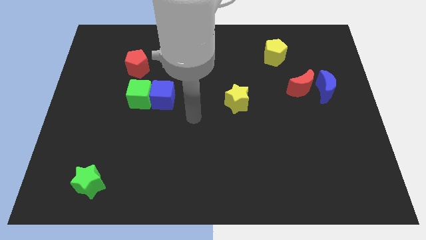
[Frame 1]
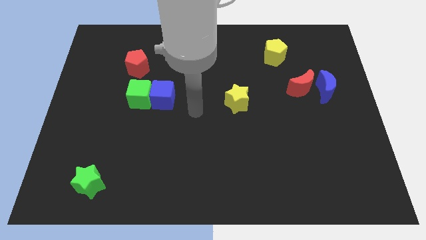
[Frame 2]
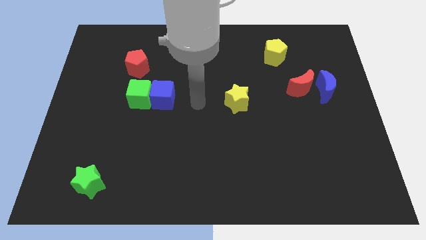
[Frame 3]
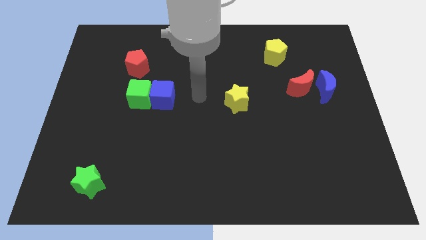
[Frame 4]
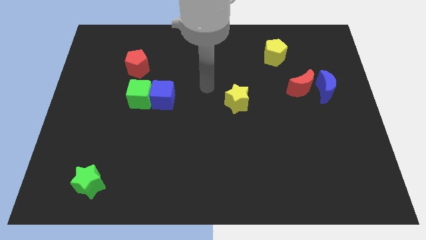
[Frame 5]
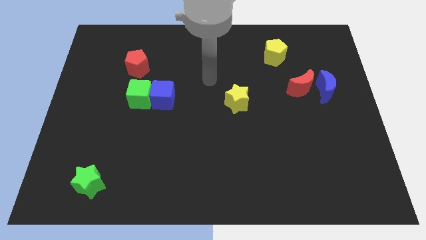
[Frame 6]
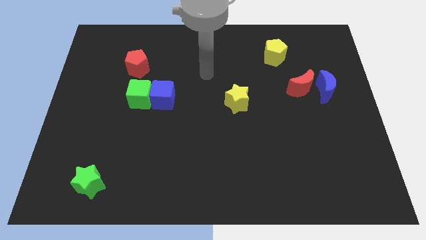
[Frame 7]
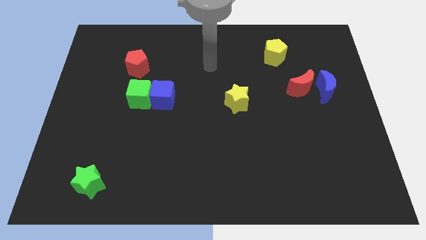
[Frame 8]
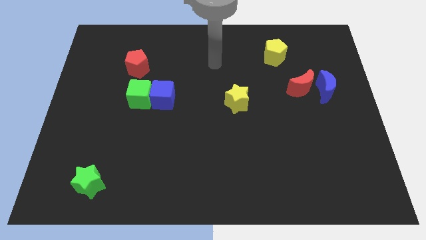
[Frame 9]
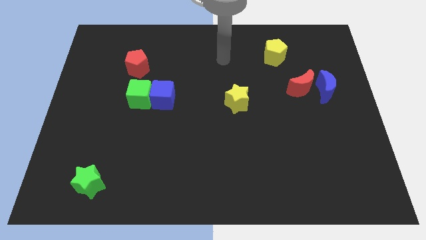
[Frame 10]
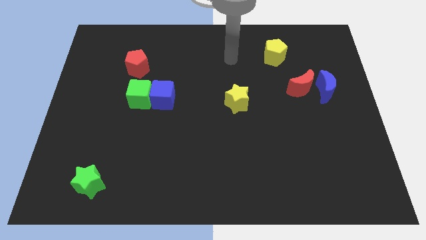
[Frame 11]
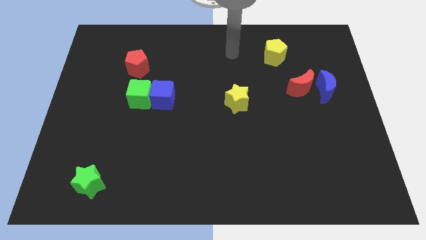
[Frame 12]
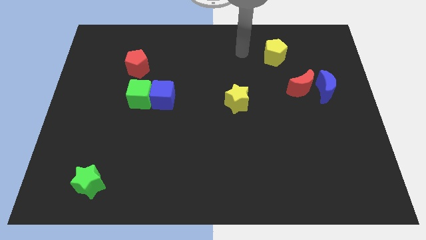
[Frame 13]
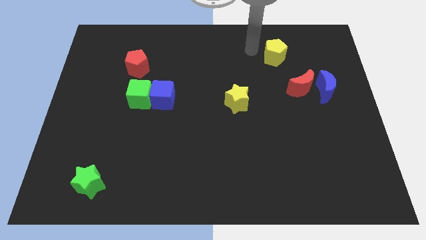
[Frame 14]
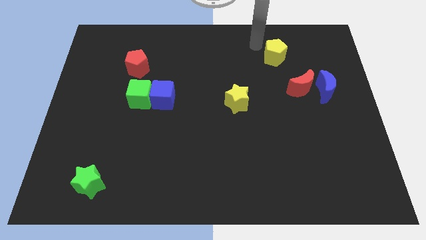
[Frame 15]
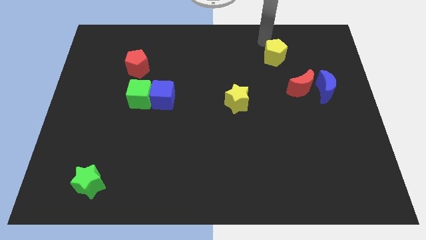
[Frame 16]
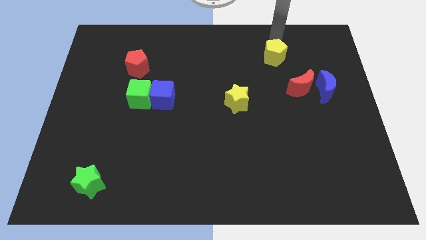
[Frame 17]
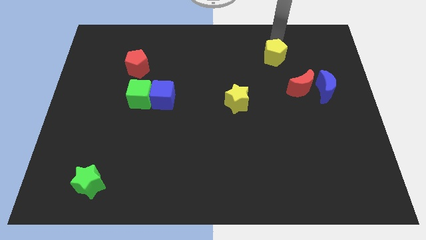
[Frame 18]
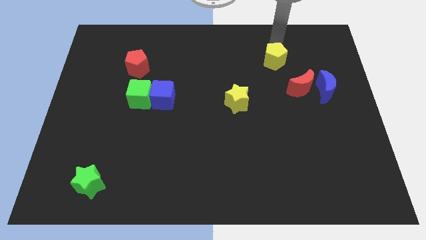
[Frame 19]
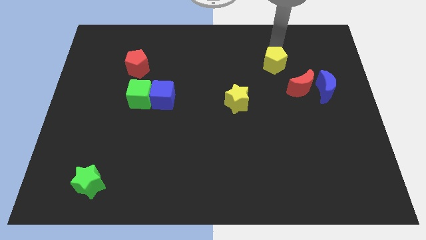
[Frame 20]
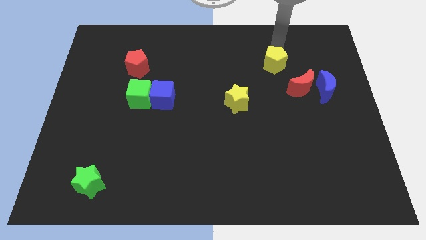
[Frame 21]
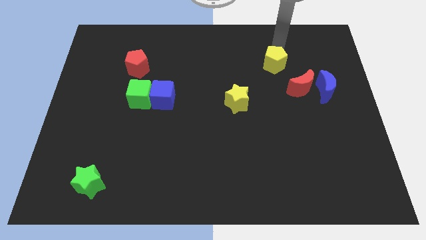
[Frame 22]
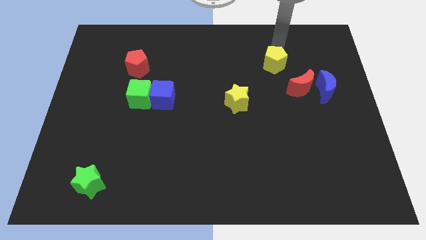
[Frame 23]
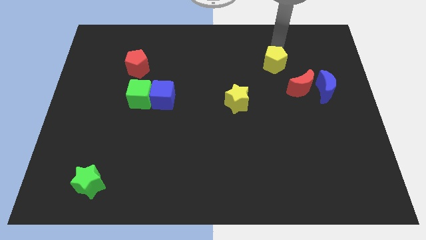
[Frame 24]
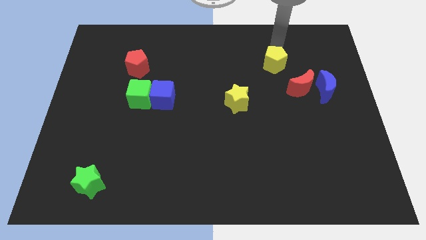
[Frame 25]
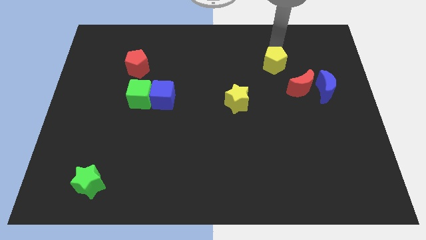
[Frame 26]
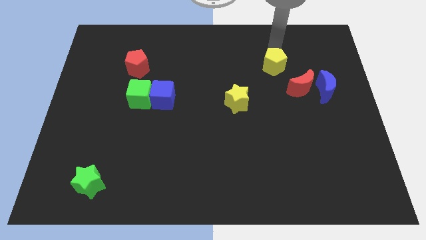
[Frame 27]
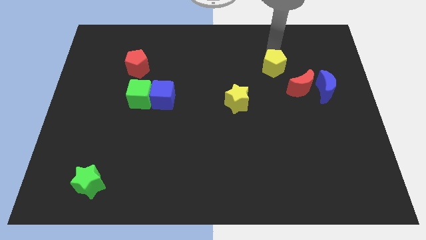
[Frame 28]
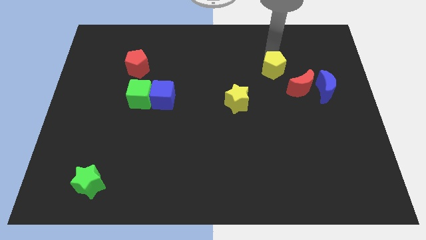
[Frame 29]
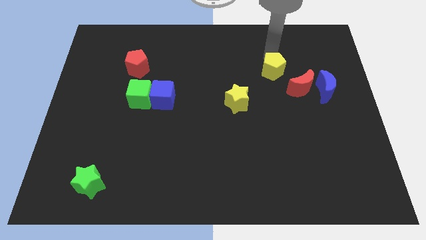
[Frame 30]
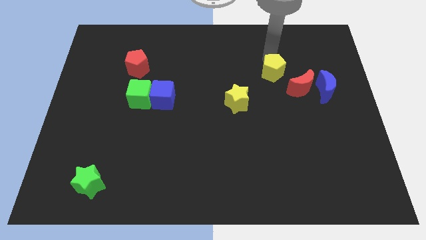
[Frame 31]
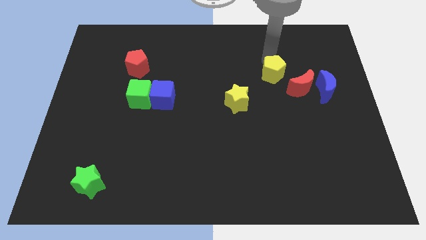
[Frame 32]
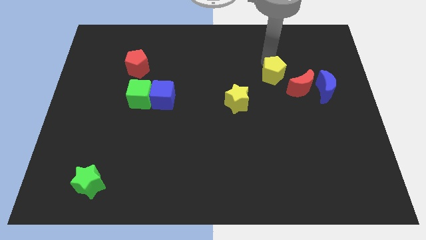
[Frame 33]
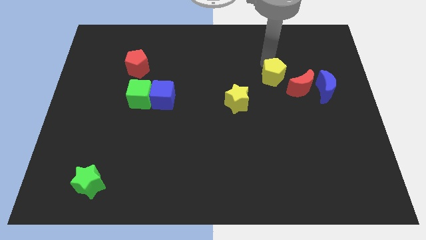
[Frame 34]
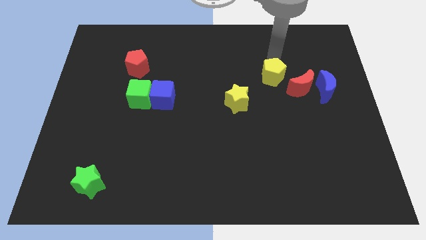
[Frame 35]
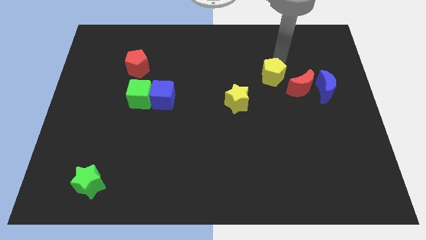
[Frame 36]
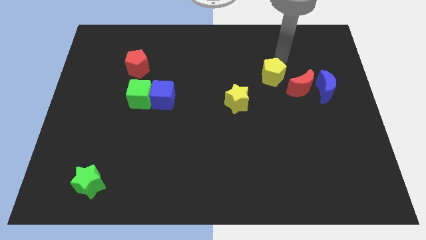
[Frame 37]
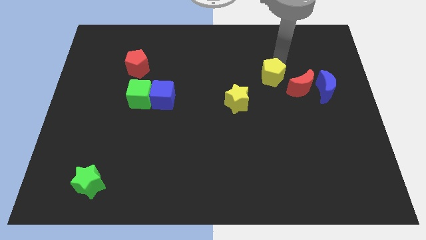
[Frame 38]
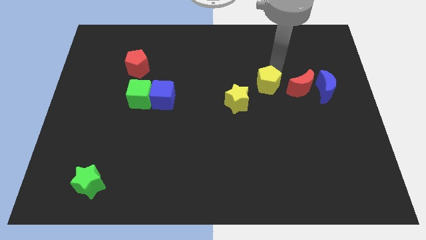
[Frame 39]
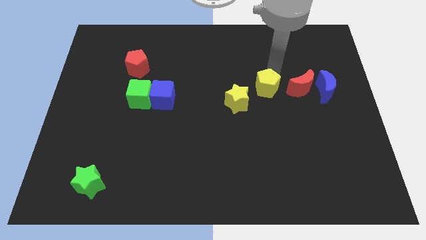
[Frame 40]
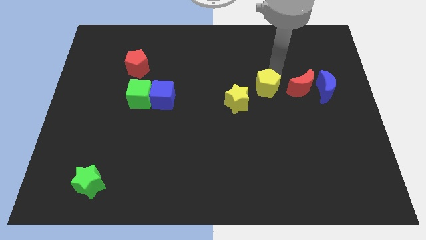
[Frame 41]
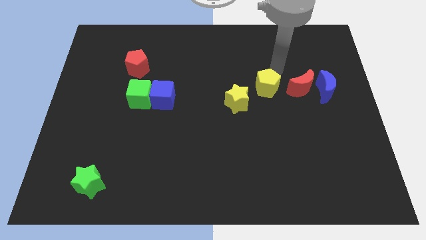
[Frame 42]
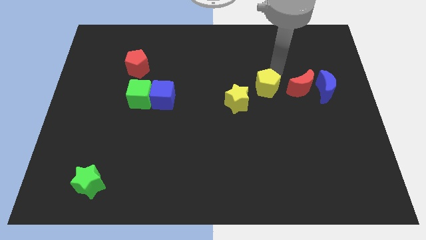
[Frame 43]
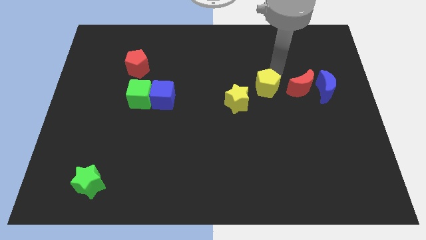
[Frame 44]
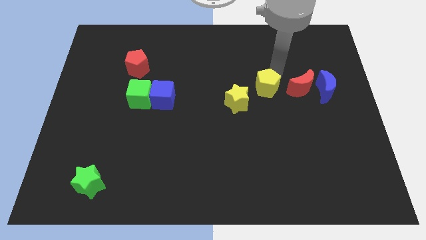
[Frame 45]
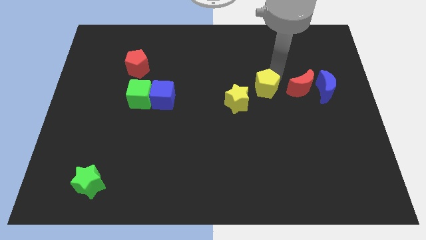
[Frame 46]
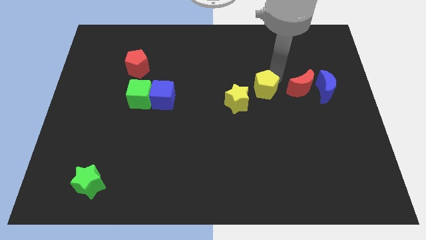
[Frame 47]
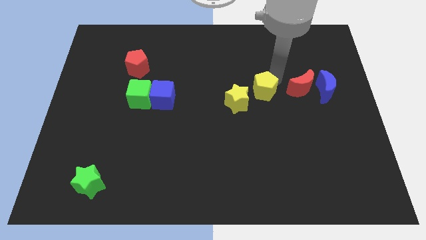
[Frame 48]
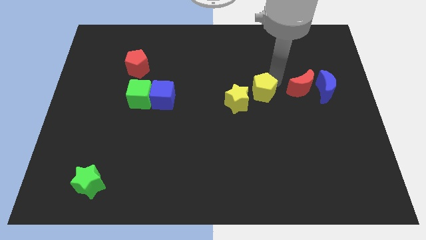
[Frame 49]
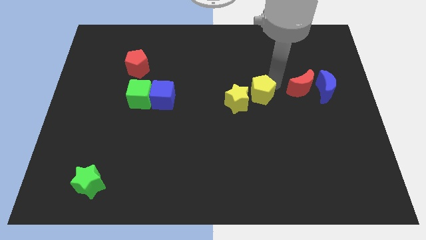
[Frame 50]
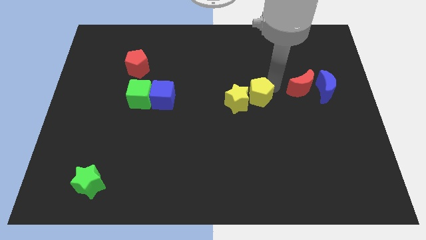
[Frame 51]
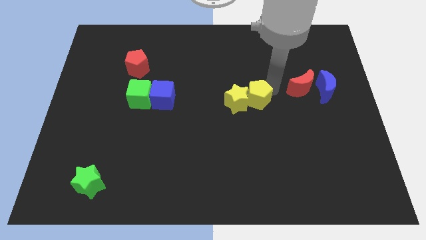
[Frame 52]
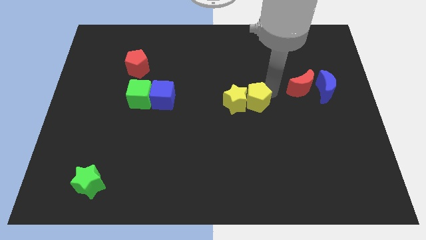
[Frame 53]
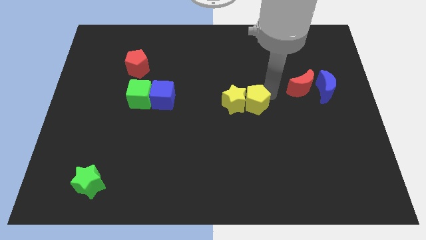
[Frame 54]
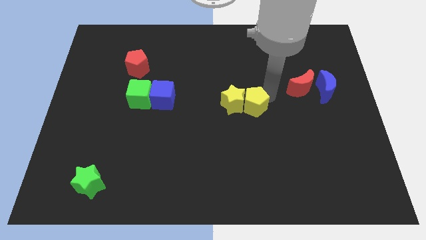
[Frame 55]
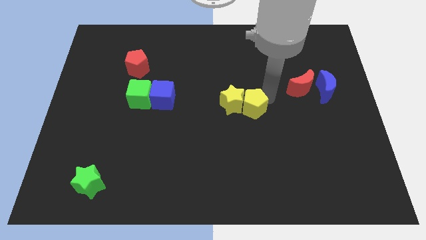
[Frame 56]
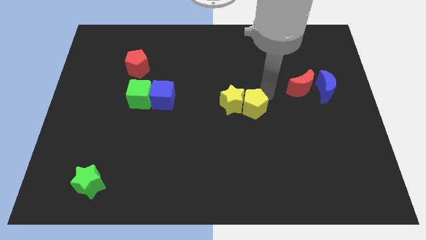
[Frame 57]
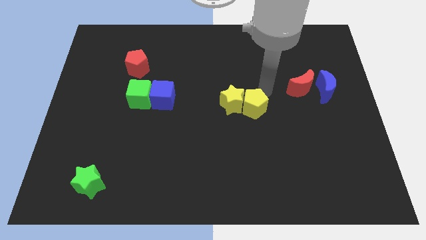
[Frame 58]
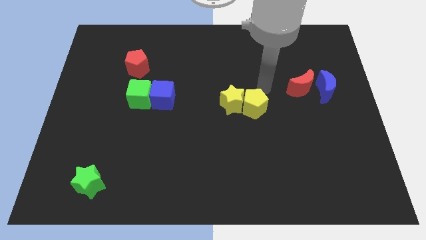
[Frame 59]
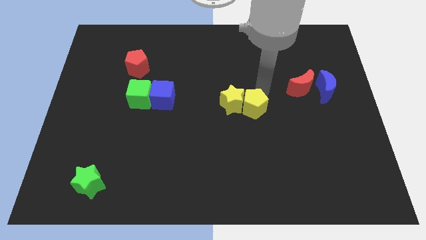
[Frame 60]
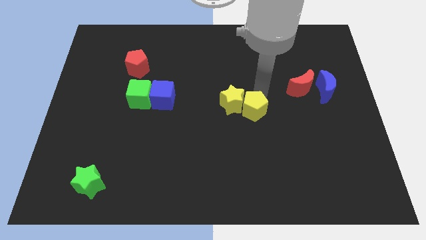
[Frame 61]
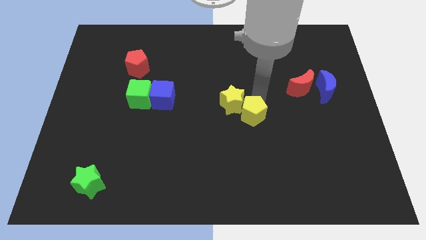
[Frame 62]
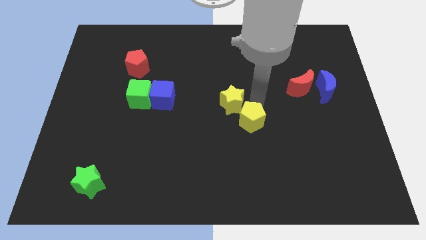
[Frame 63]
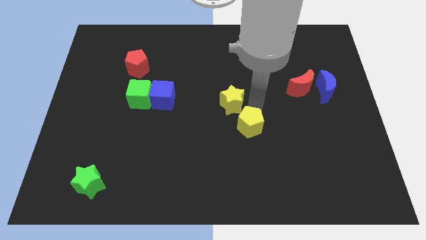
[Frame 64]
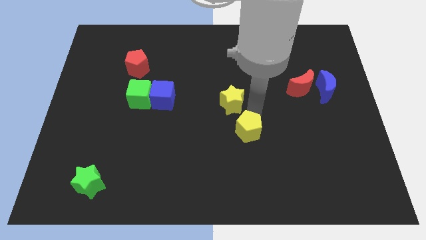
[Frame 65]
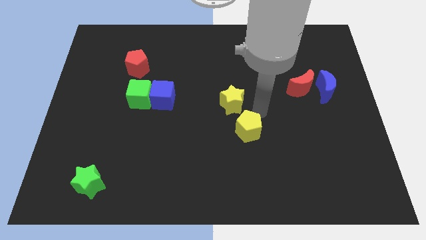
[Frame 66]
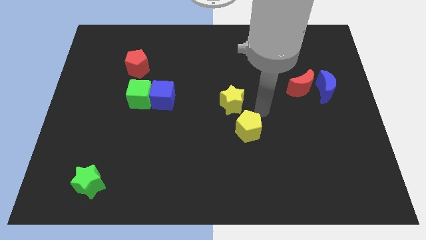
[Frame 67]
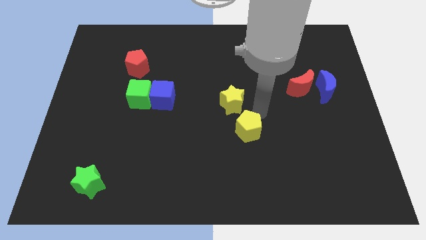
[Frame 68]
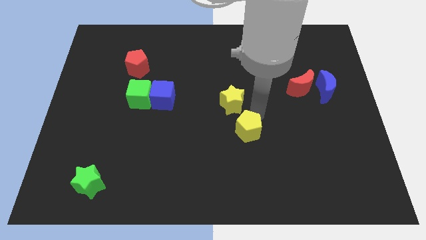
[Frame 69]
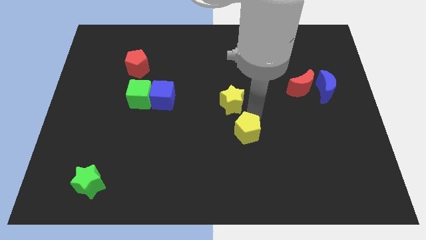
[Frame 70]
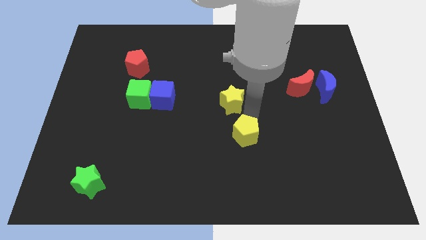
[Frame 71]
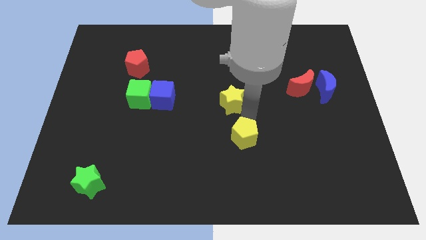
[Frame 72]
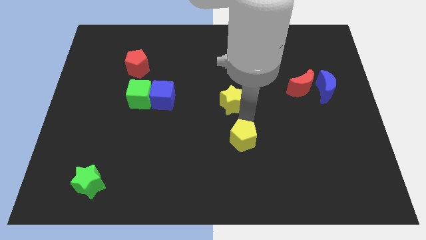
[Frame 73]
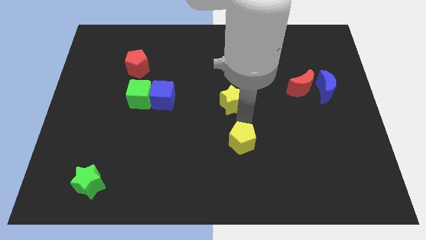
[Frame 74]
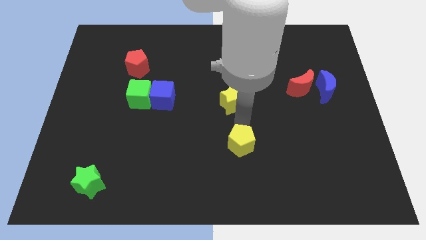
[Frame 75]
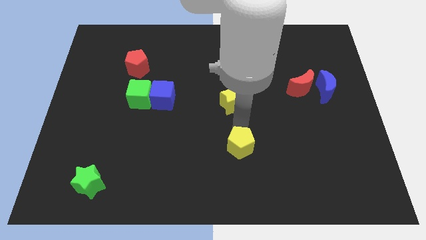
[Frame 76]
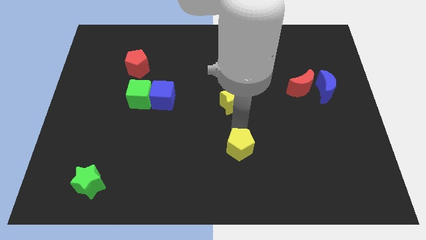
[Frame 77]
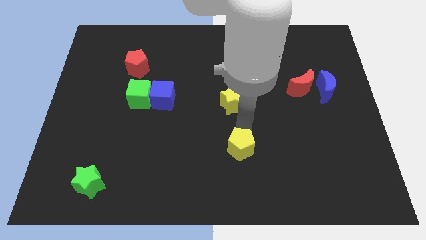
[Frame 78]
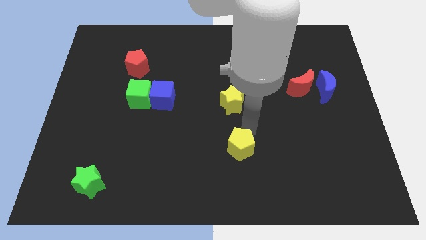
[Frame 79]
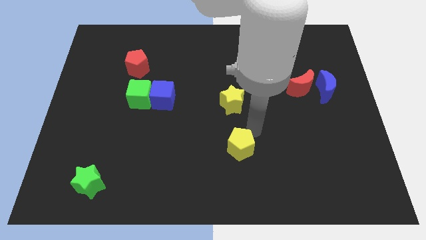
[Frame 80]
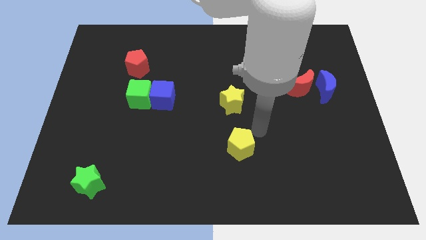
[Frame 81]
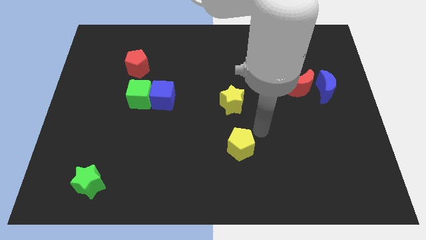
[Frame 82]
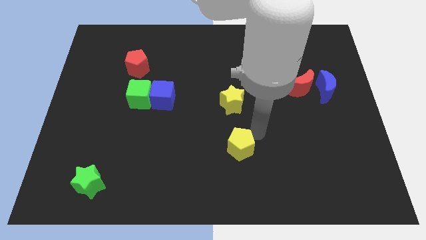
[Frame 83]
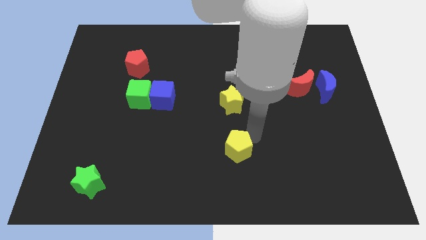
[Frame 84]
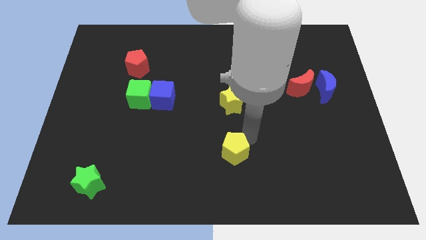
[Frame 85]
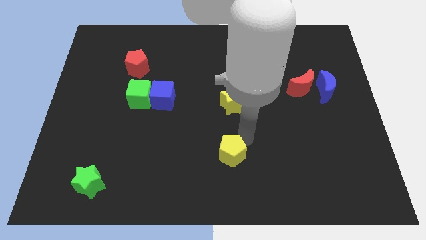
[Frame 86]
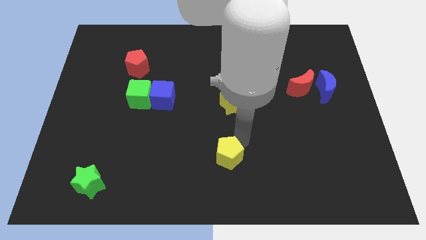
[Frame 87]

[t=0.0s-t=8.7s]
push the yellow pentagon to the bottom
